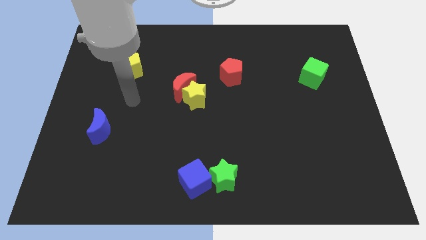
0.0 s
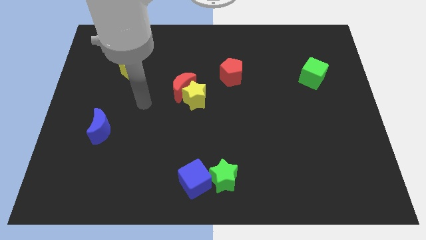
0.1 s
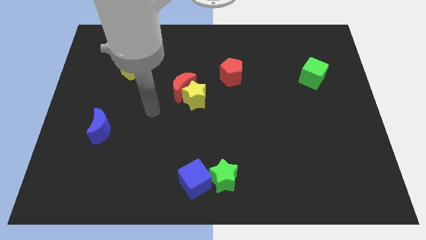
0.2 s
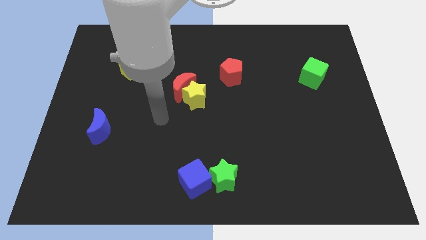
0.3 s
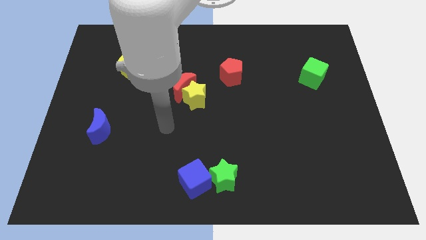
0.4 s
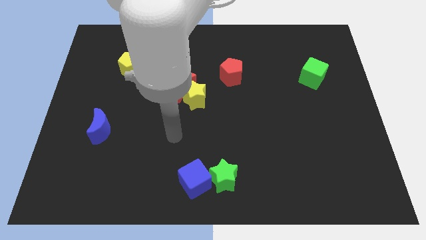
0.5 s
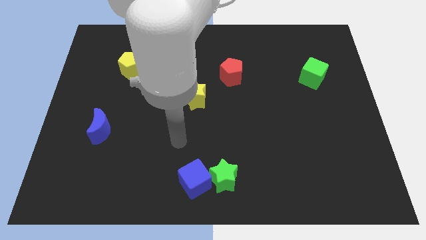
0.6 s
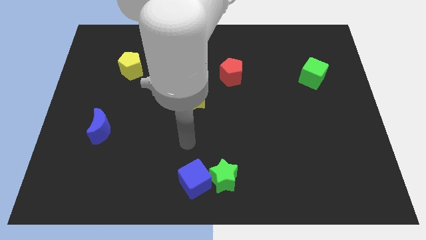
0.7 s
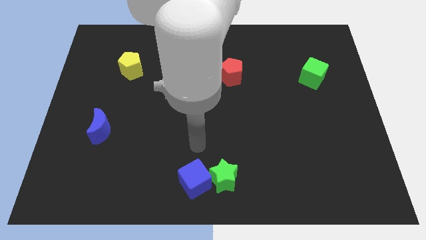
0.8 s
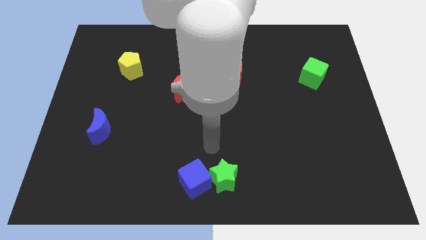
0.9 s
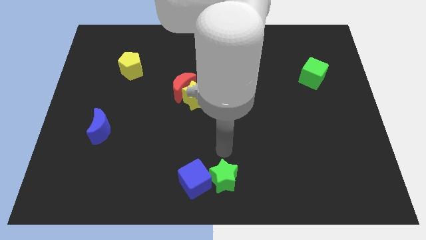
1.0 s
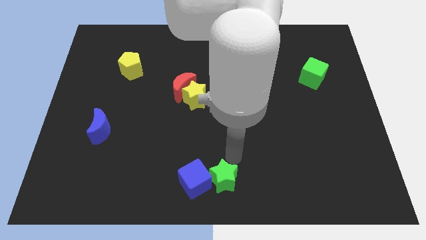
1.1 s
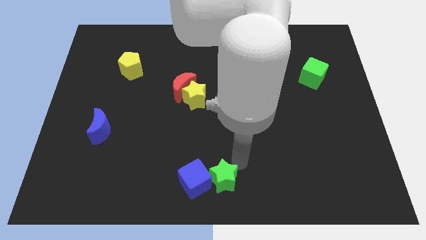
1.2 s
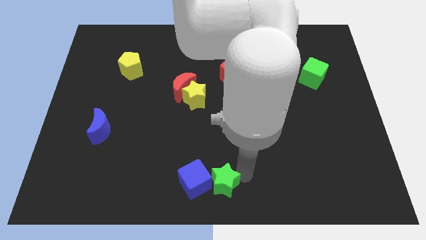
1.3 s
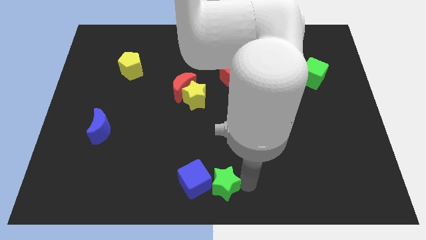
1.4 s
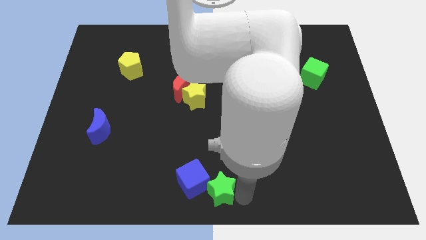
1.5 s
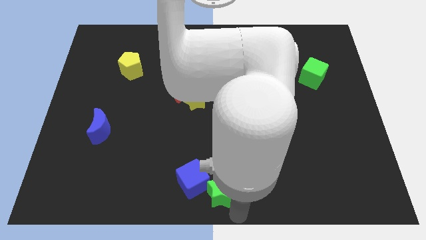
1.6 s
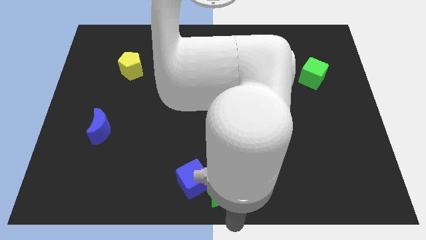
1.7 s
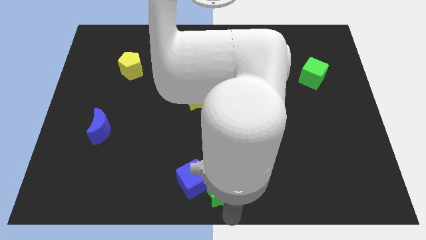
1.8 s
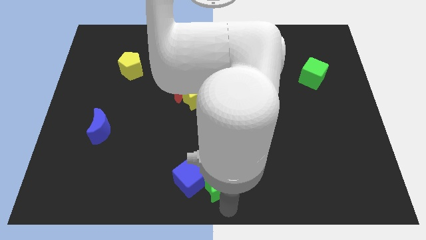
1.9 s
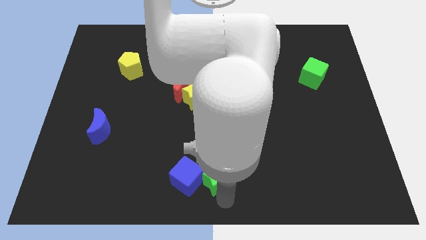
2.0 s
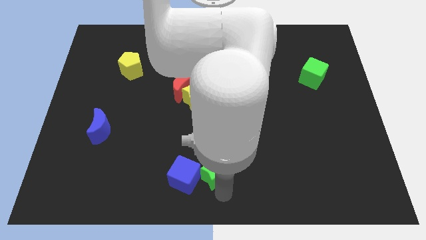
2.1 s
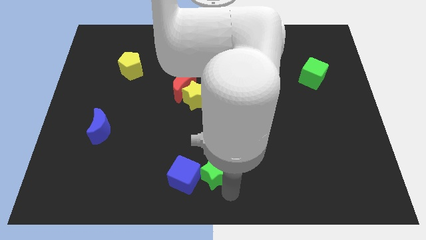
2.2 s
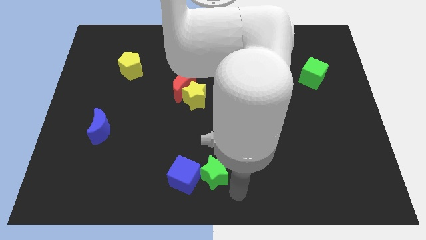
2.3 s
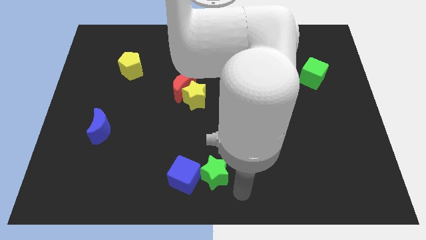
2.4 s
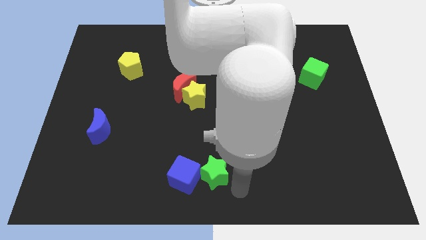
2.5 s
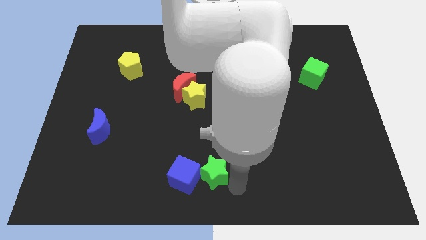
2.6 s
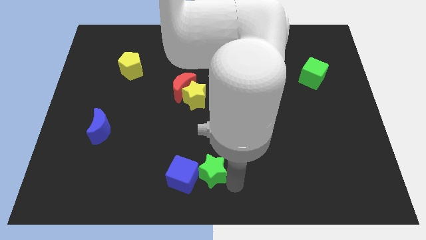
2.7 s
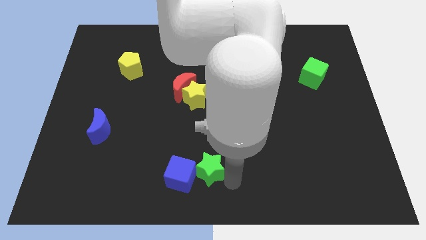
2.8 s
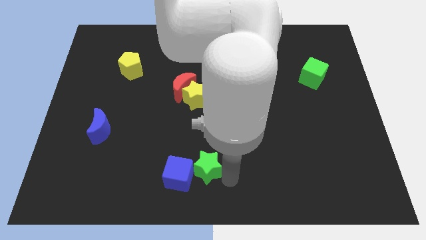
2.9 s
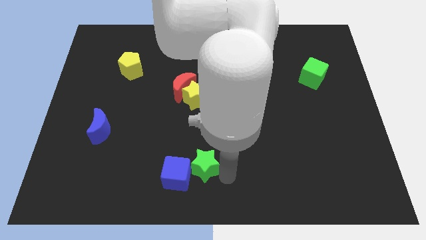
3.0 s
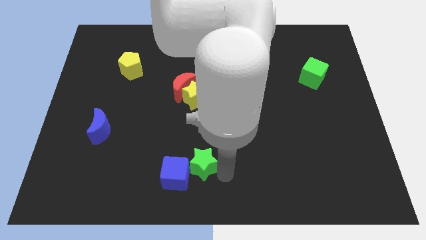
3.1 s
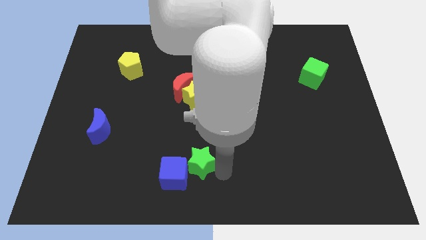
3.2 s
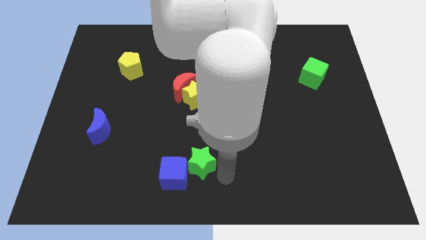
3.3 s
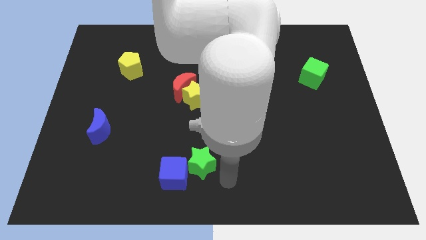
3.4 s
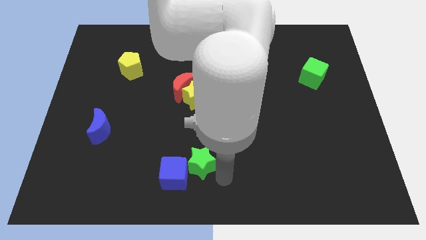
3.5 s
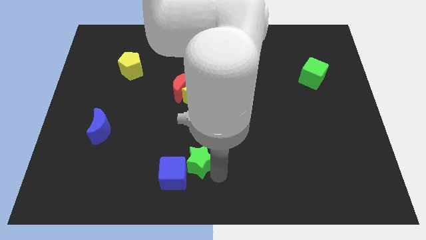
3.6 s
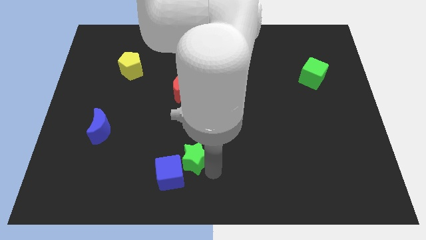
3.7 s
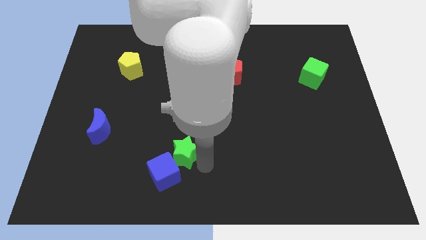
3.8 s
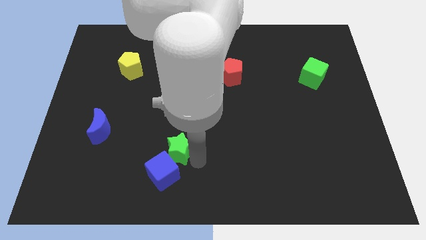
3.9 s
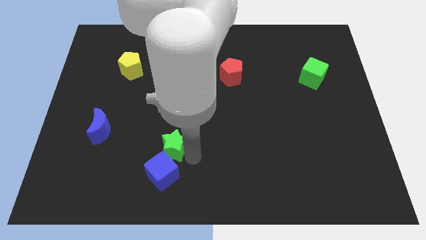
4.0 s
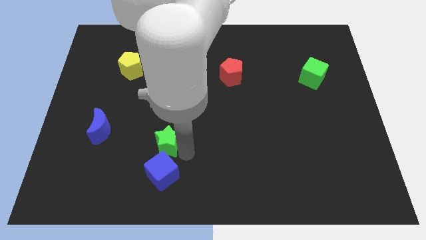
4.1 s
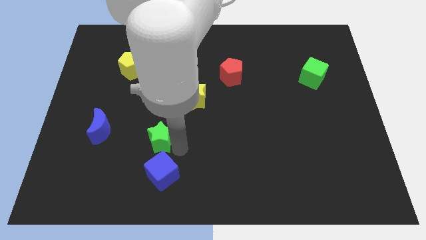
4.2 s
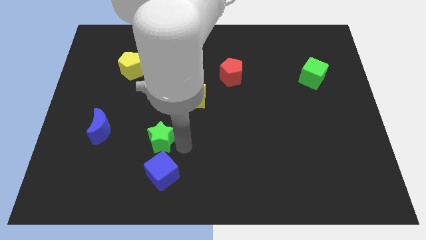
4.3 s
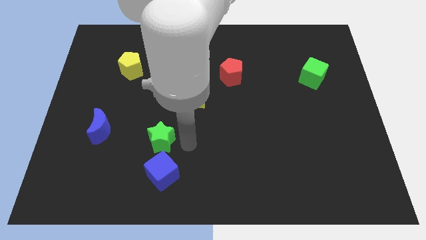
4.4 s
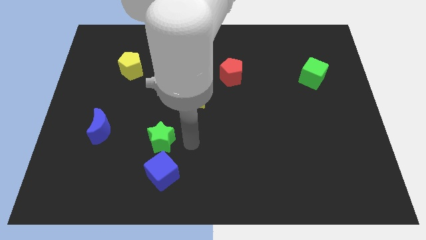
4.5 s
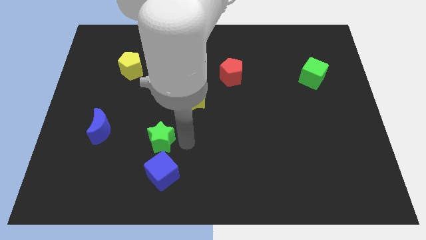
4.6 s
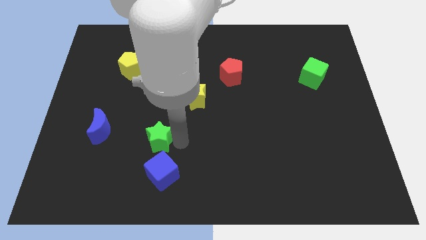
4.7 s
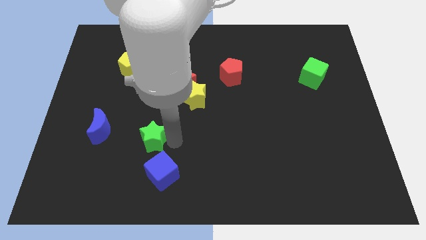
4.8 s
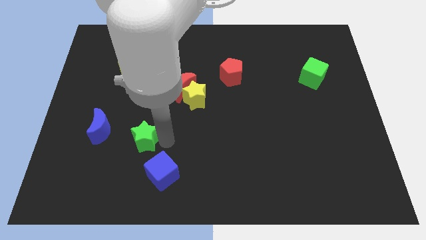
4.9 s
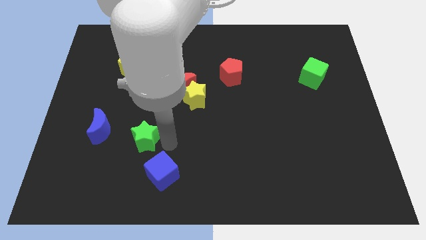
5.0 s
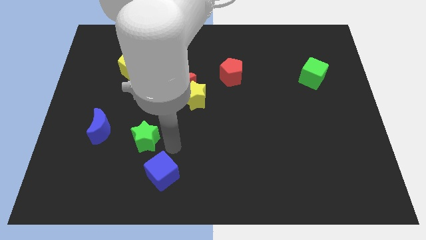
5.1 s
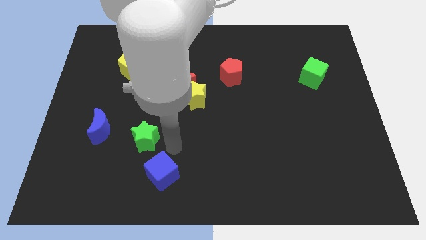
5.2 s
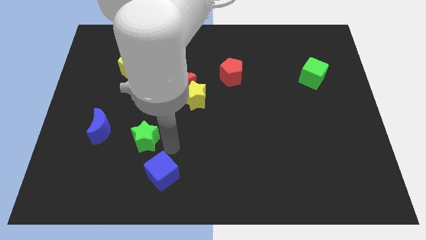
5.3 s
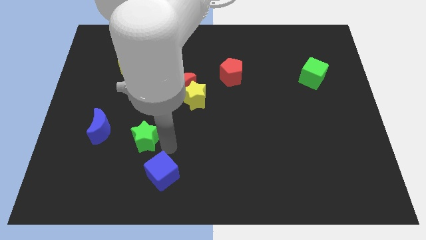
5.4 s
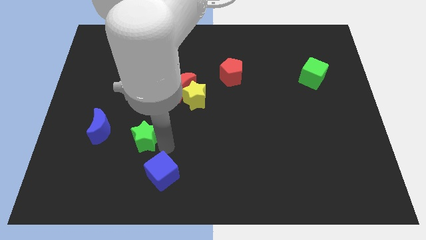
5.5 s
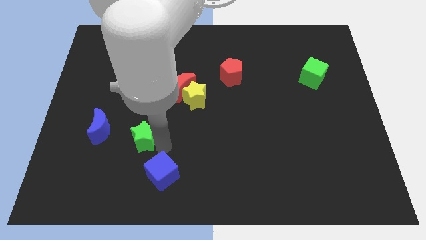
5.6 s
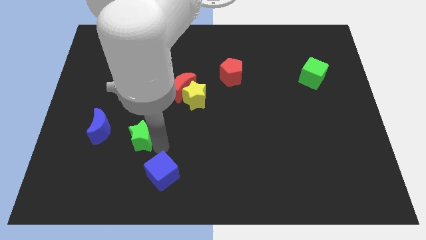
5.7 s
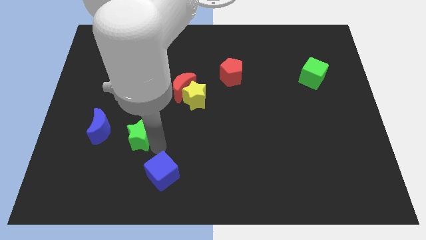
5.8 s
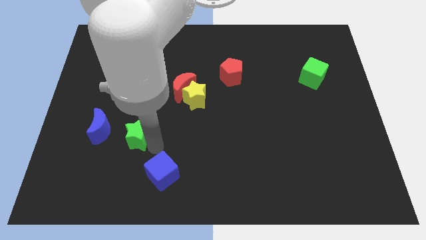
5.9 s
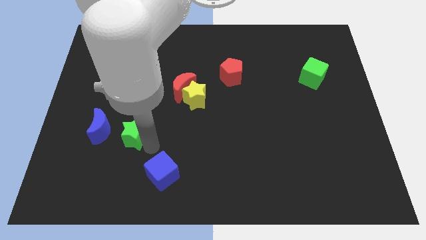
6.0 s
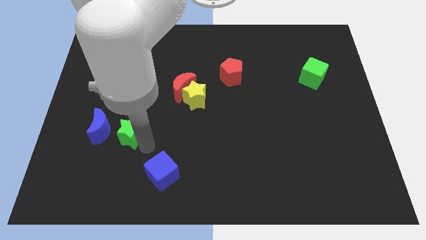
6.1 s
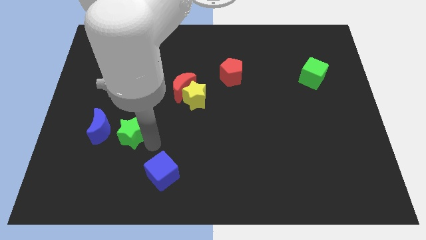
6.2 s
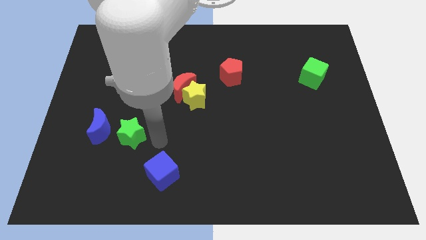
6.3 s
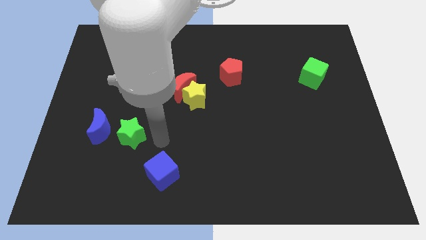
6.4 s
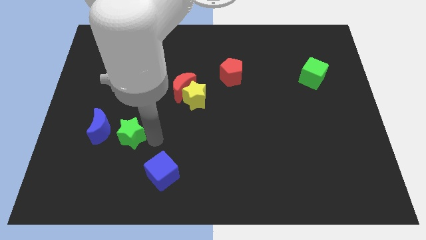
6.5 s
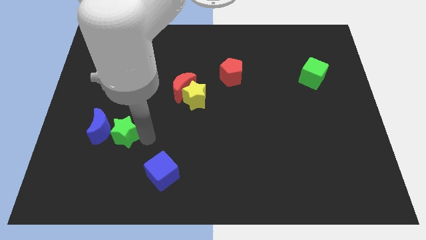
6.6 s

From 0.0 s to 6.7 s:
push the green star towards the blue moon
